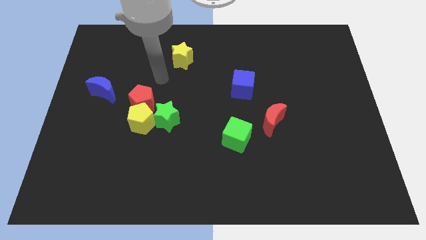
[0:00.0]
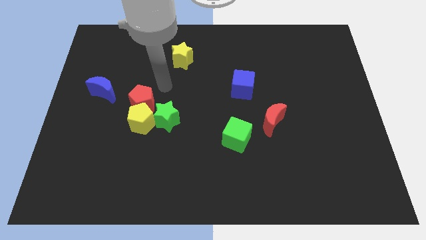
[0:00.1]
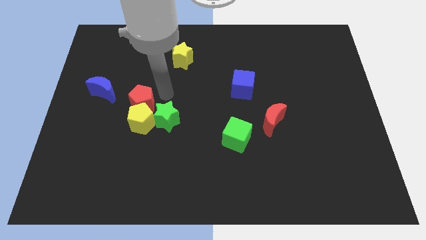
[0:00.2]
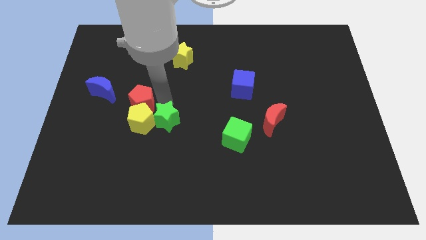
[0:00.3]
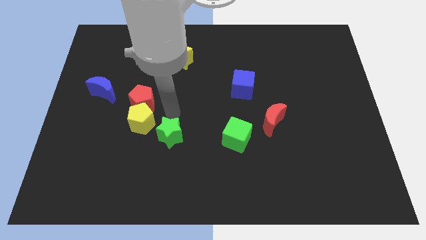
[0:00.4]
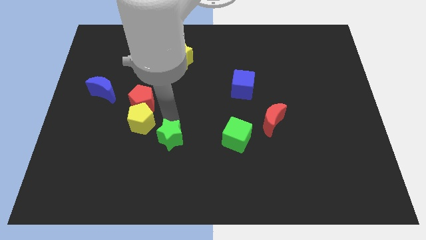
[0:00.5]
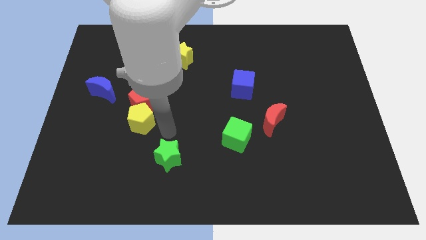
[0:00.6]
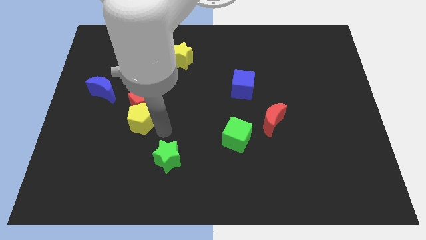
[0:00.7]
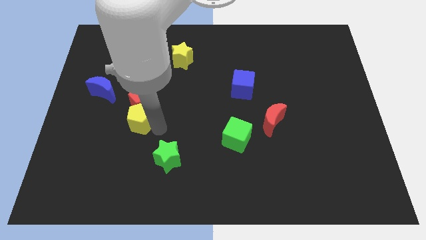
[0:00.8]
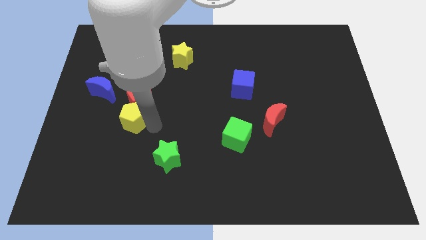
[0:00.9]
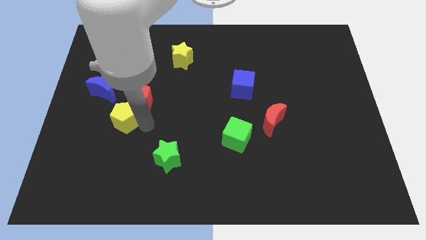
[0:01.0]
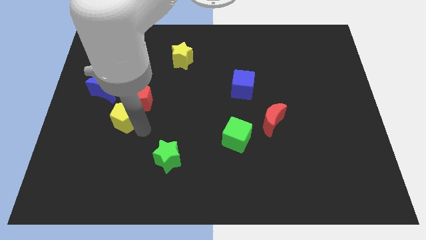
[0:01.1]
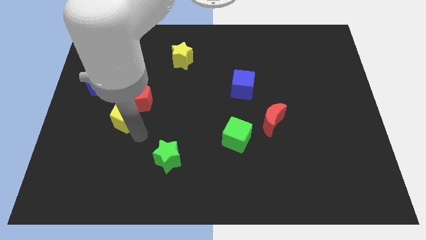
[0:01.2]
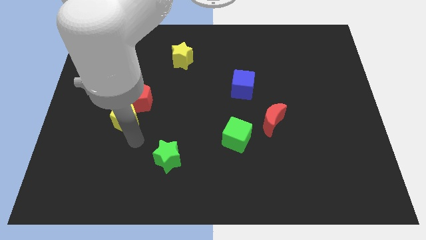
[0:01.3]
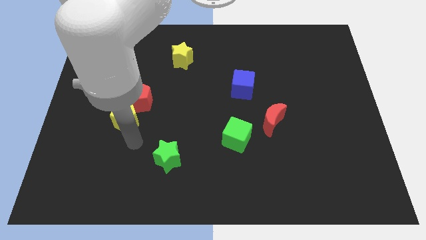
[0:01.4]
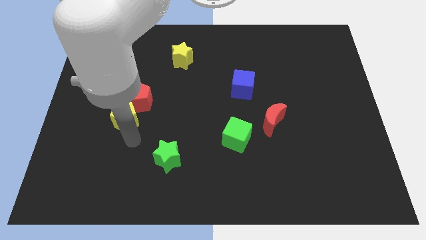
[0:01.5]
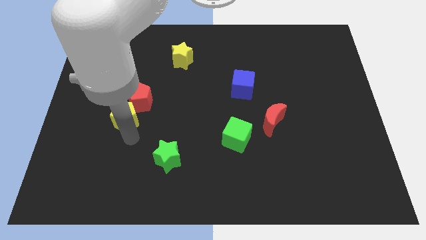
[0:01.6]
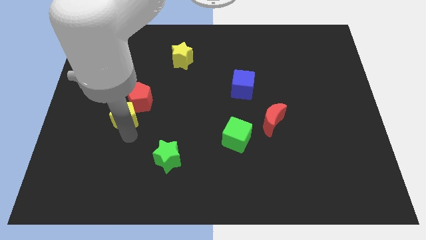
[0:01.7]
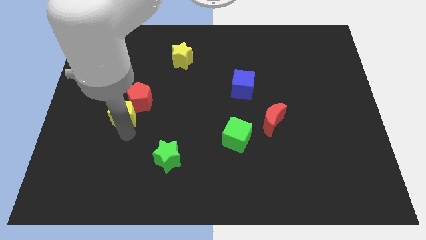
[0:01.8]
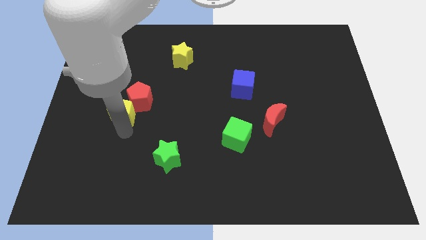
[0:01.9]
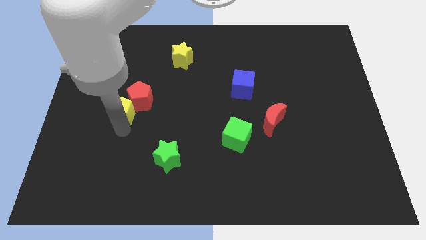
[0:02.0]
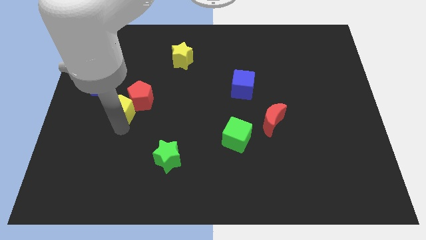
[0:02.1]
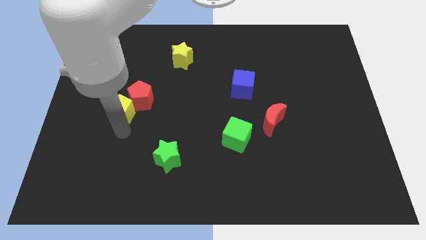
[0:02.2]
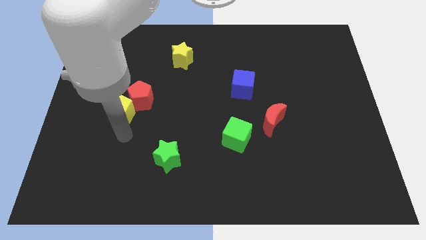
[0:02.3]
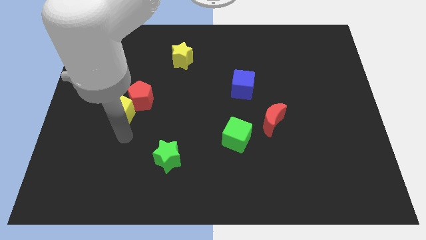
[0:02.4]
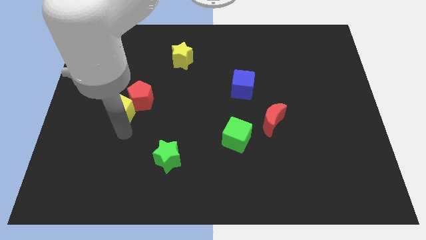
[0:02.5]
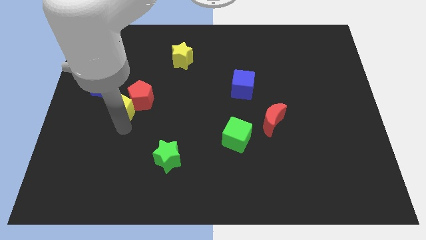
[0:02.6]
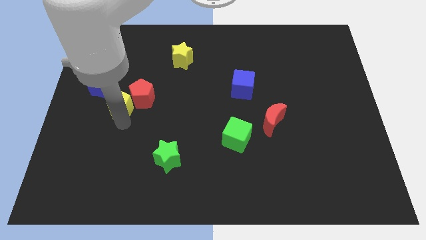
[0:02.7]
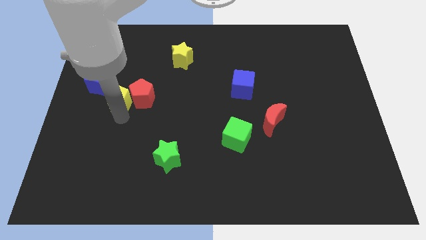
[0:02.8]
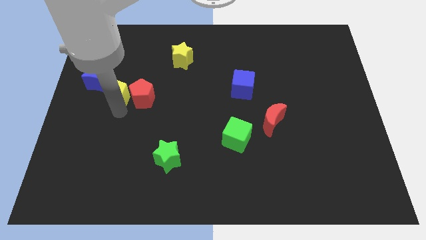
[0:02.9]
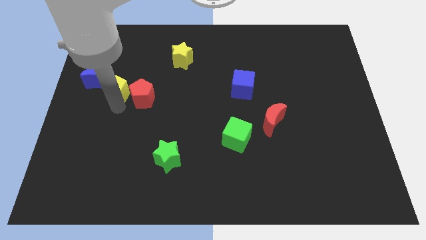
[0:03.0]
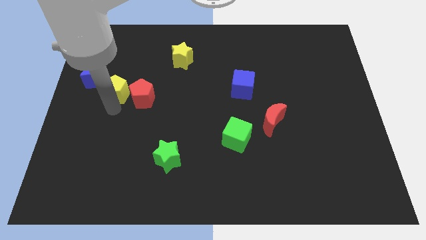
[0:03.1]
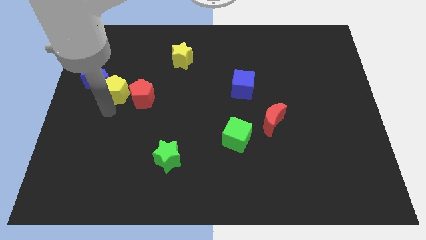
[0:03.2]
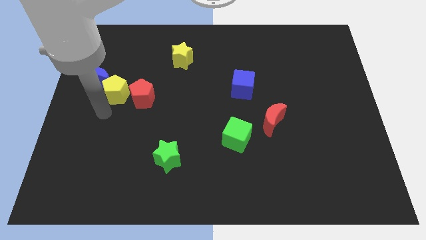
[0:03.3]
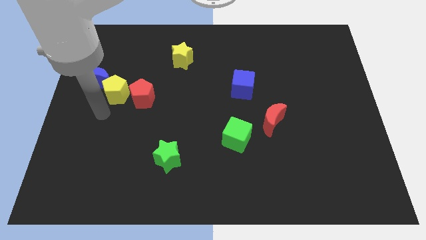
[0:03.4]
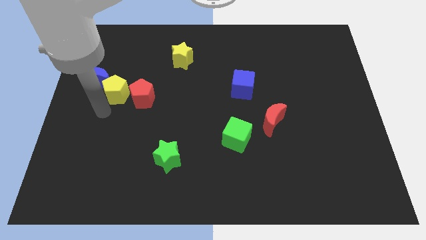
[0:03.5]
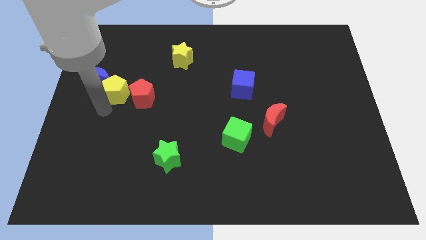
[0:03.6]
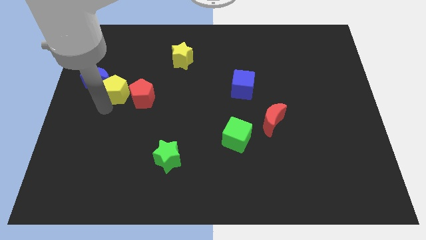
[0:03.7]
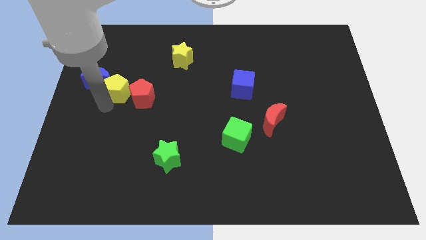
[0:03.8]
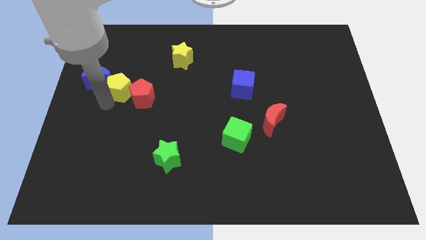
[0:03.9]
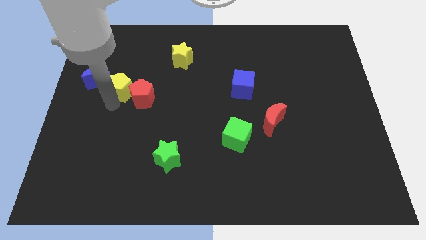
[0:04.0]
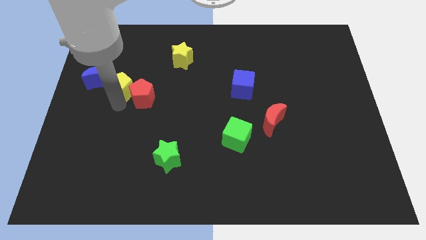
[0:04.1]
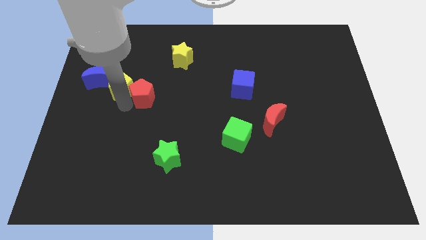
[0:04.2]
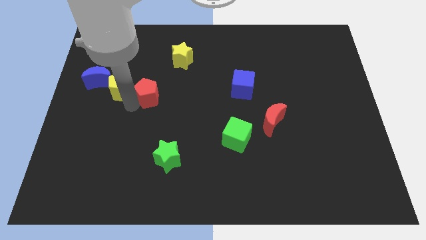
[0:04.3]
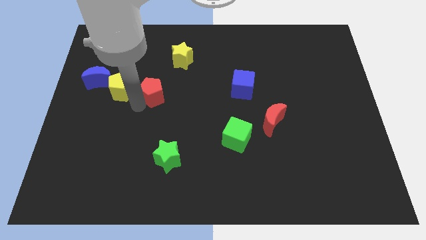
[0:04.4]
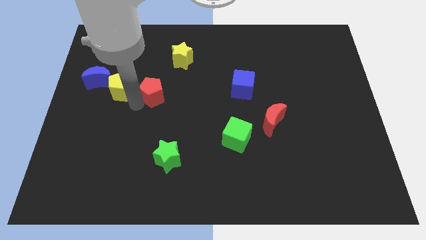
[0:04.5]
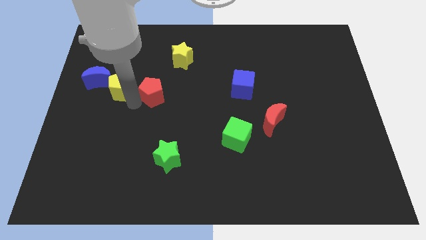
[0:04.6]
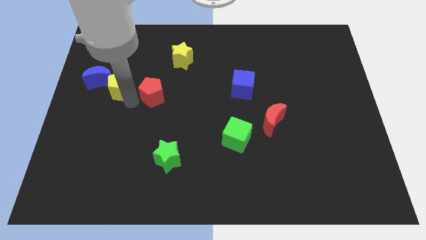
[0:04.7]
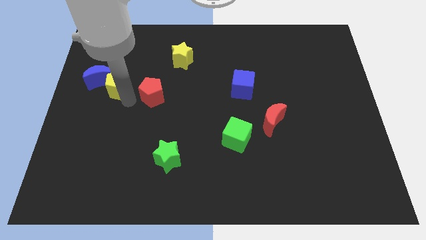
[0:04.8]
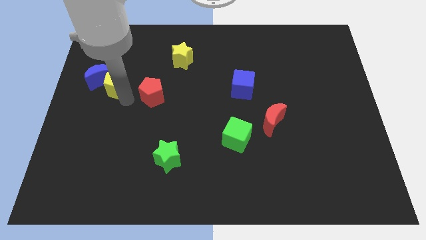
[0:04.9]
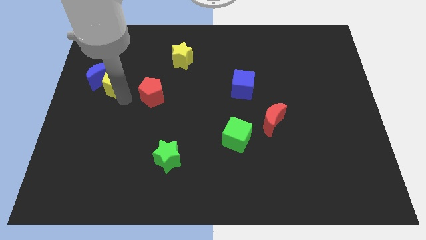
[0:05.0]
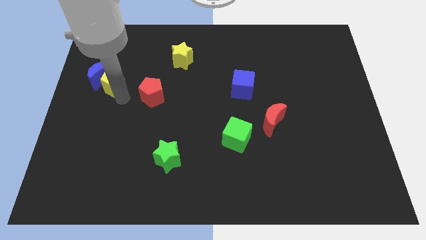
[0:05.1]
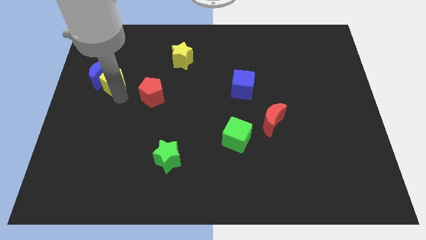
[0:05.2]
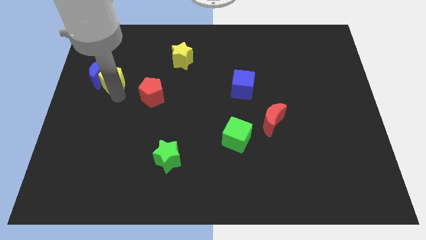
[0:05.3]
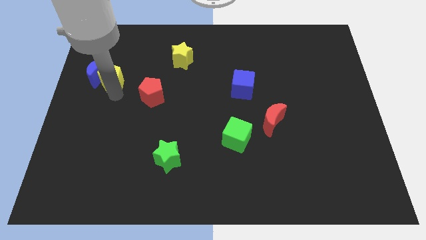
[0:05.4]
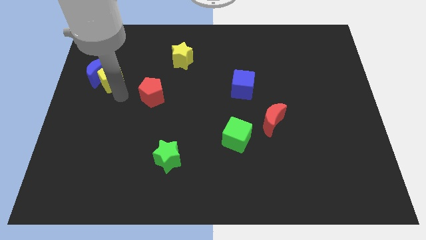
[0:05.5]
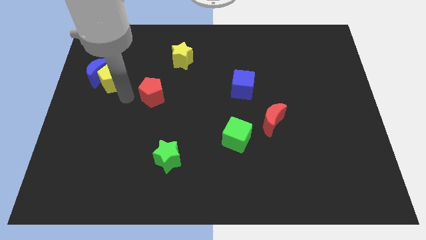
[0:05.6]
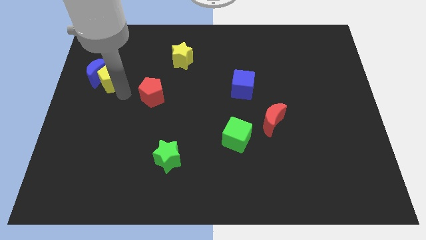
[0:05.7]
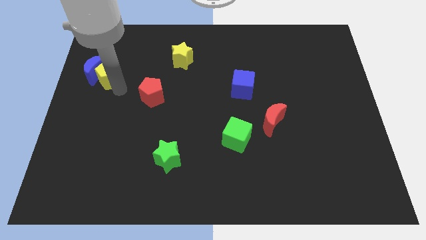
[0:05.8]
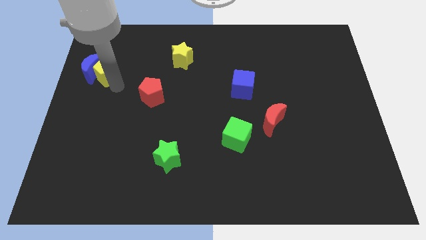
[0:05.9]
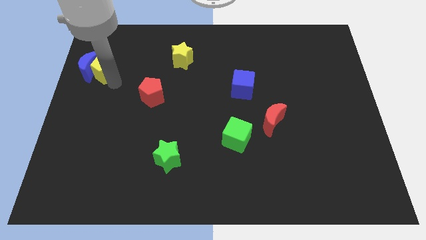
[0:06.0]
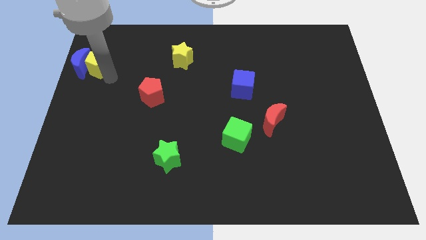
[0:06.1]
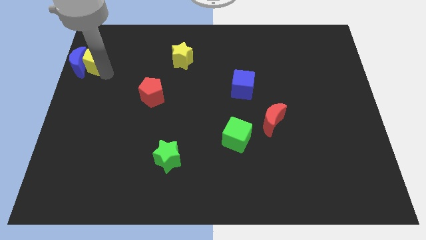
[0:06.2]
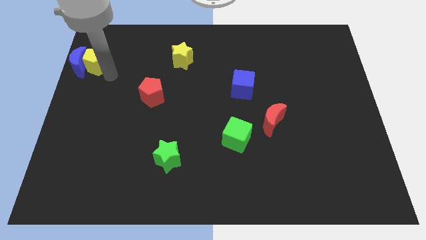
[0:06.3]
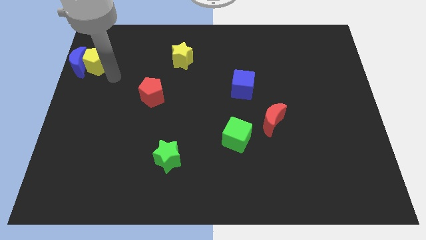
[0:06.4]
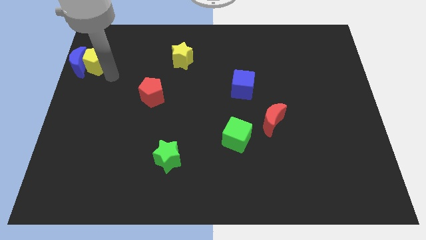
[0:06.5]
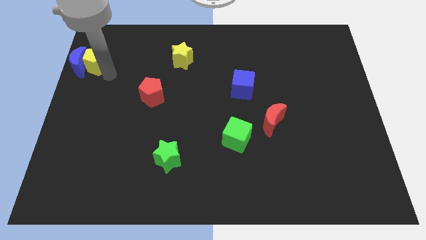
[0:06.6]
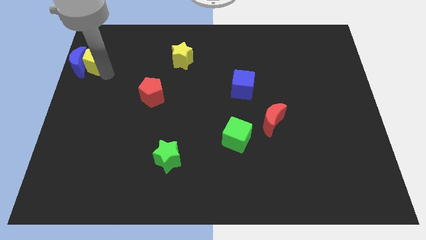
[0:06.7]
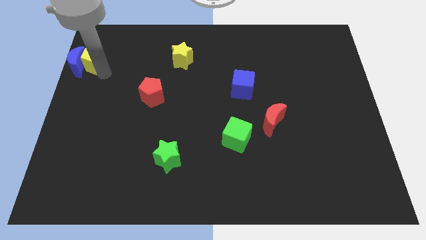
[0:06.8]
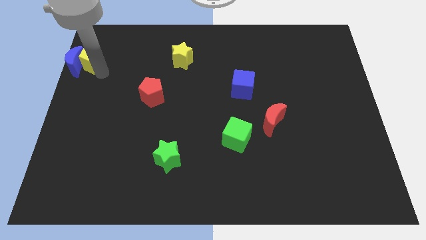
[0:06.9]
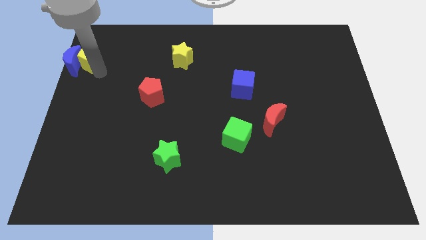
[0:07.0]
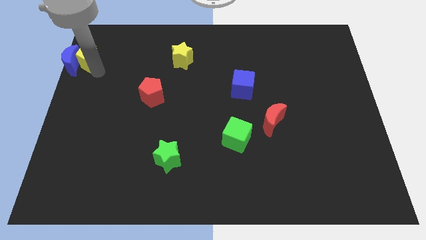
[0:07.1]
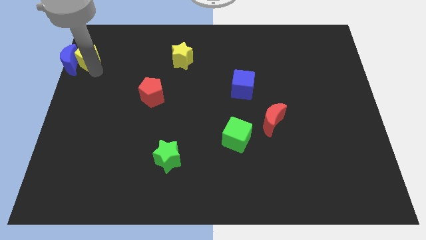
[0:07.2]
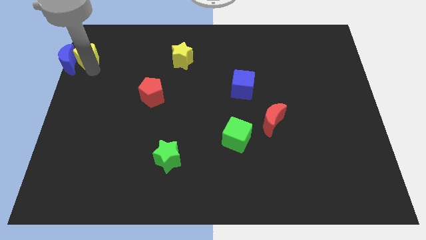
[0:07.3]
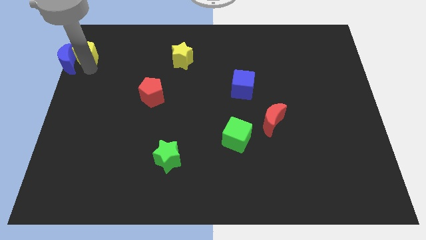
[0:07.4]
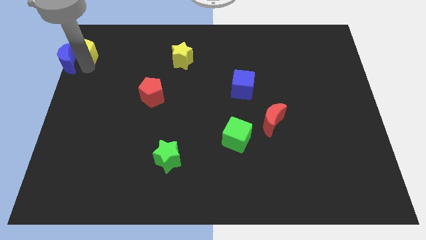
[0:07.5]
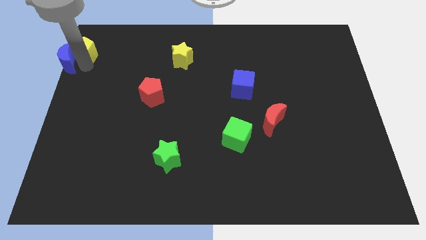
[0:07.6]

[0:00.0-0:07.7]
put the yellow pentagon to the top left
